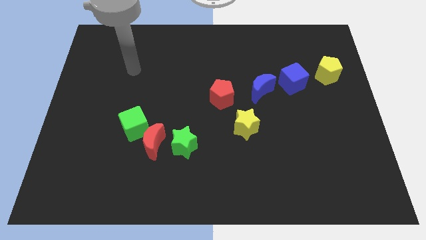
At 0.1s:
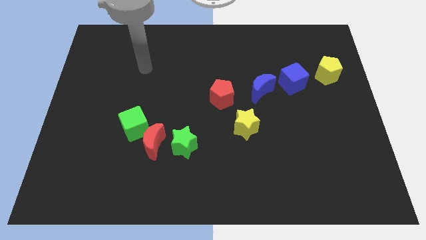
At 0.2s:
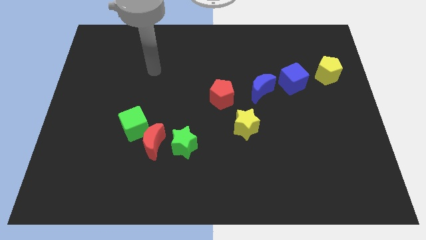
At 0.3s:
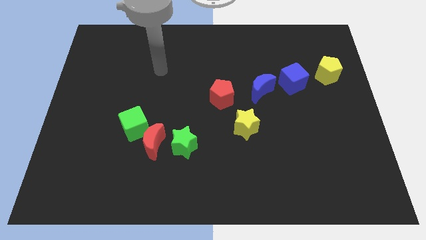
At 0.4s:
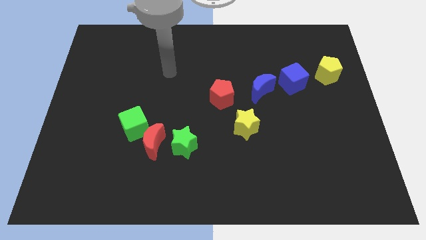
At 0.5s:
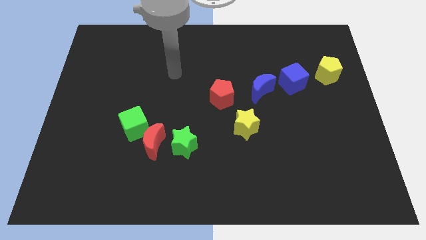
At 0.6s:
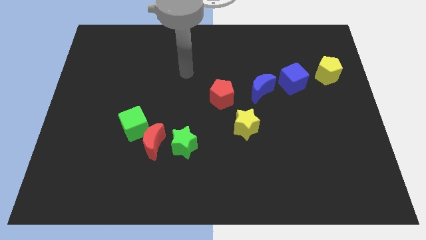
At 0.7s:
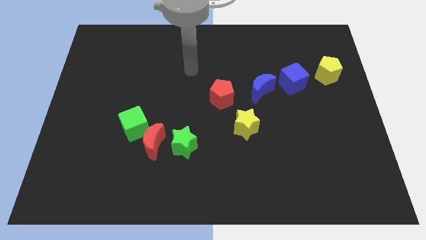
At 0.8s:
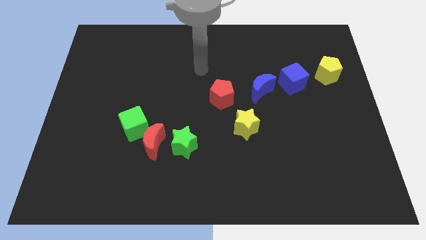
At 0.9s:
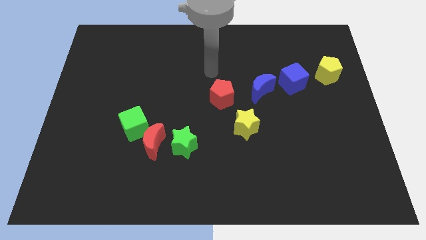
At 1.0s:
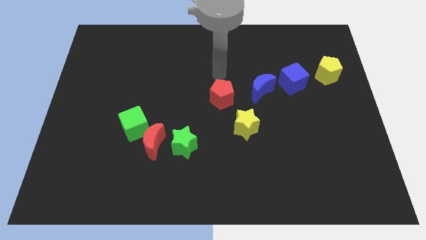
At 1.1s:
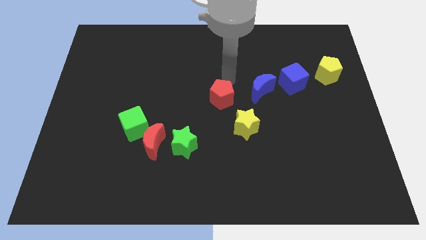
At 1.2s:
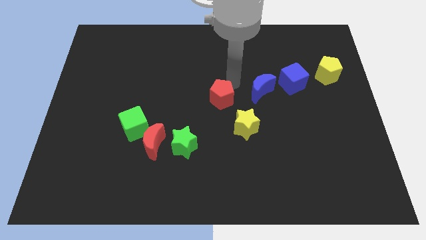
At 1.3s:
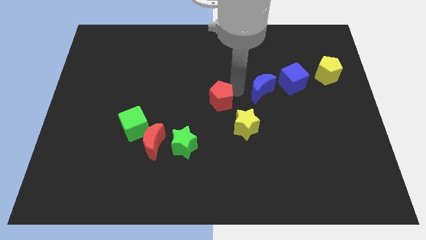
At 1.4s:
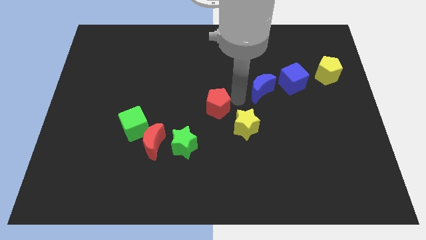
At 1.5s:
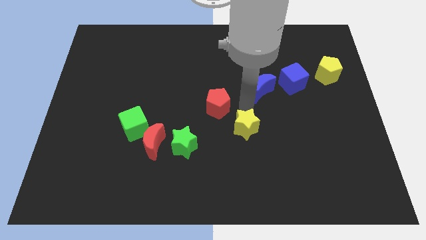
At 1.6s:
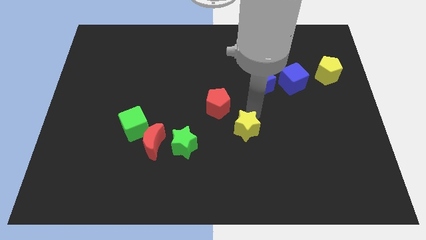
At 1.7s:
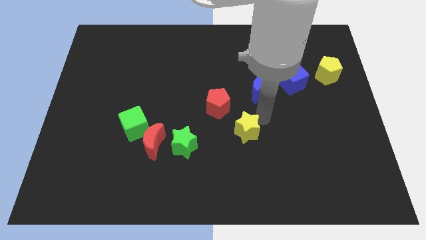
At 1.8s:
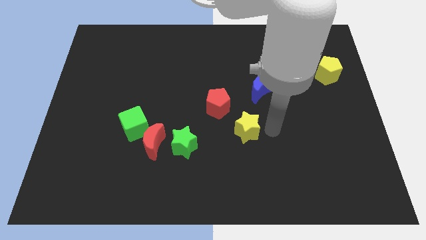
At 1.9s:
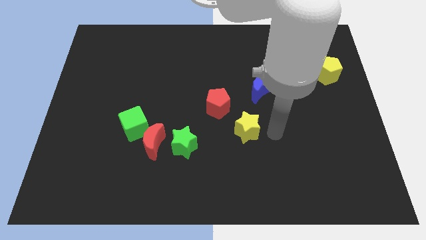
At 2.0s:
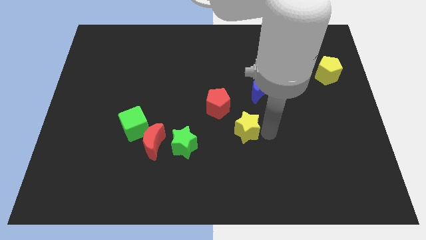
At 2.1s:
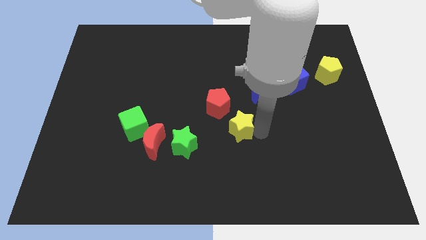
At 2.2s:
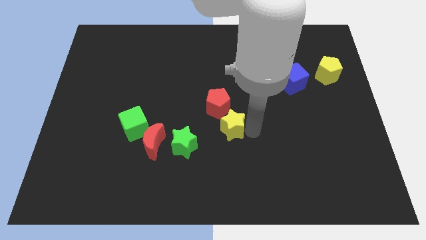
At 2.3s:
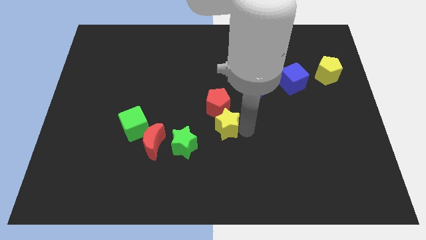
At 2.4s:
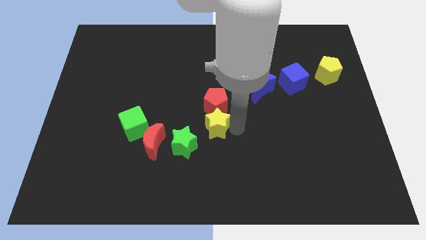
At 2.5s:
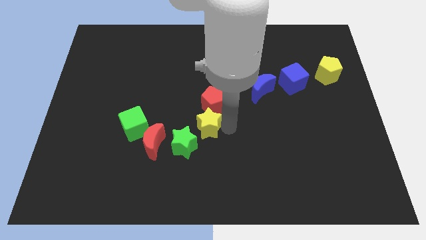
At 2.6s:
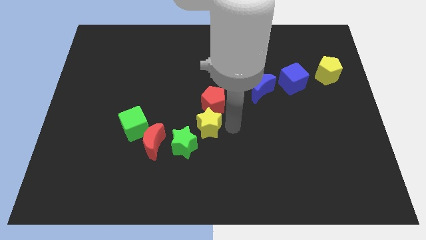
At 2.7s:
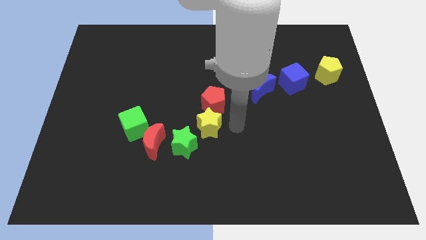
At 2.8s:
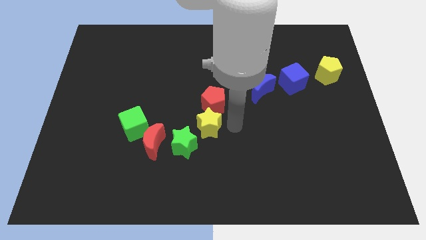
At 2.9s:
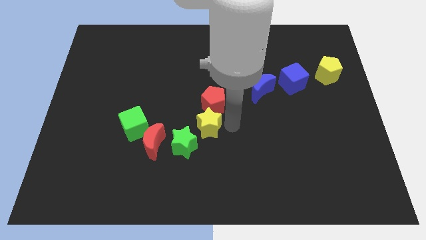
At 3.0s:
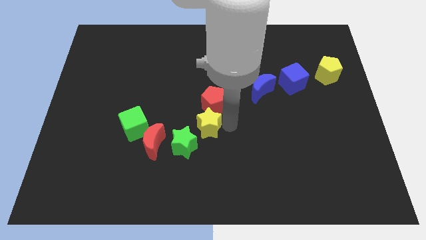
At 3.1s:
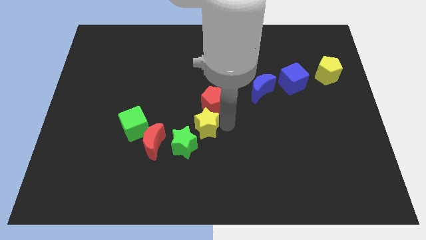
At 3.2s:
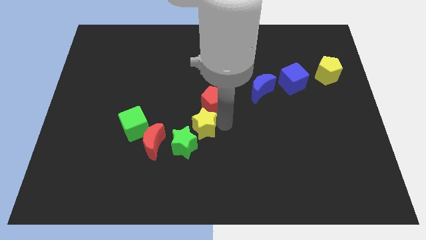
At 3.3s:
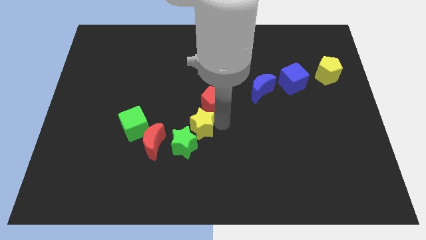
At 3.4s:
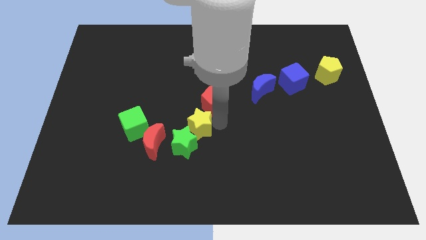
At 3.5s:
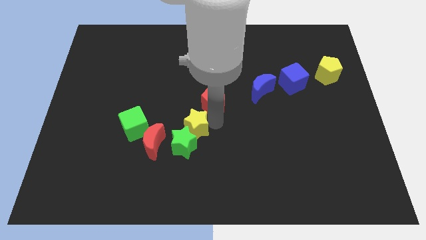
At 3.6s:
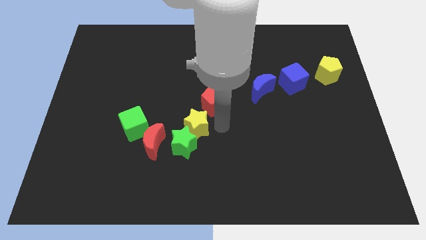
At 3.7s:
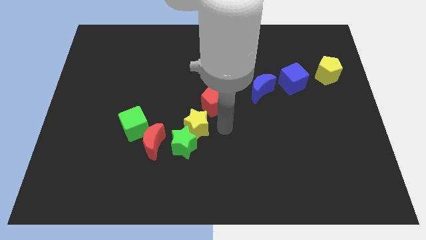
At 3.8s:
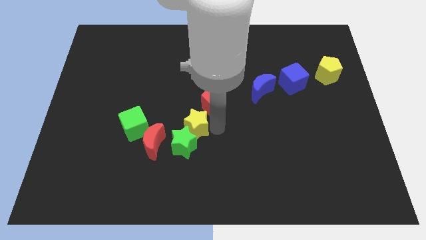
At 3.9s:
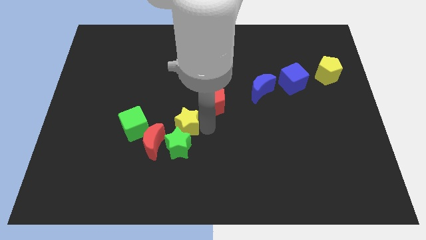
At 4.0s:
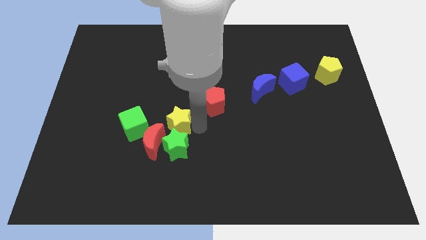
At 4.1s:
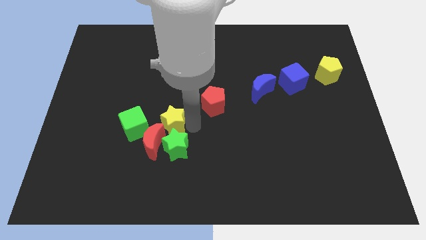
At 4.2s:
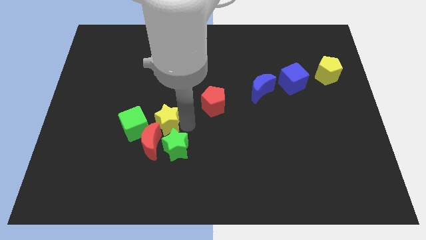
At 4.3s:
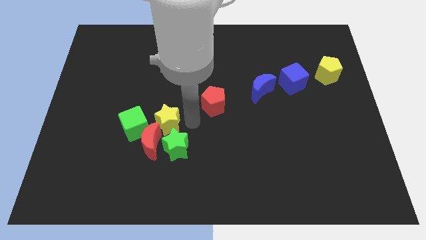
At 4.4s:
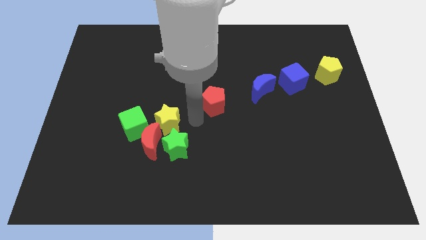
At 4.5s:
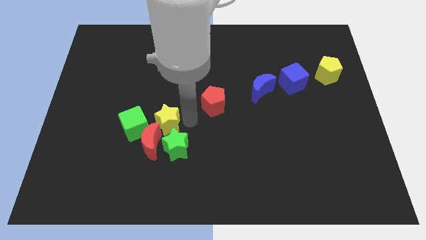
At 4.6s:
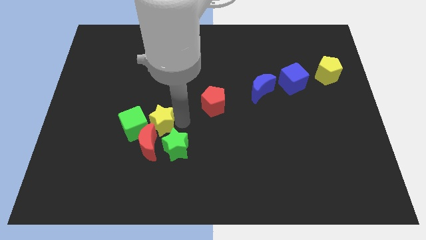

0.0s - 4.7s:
slide the yellow star to the green cube

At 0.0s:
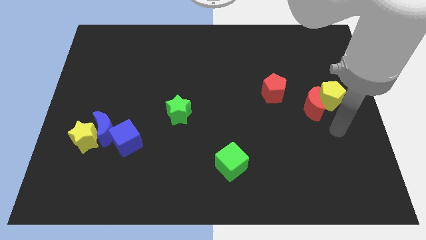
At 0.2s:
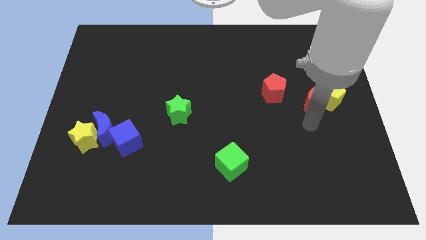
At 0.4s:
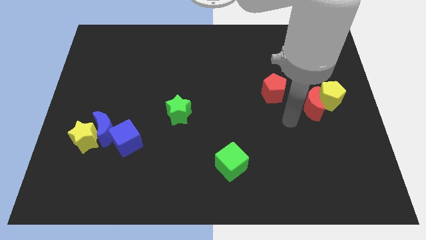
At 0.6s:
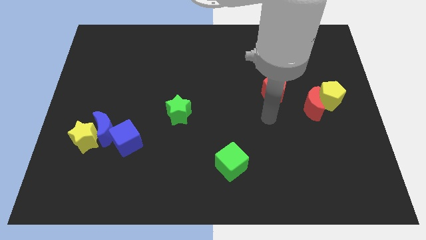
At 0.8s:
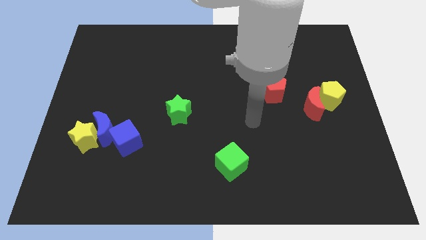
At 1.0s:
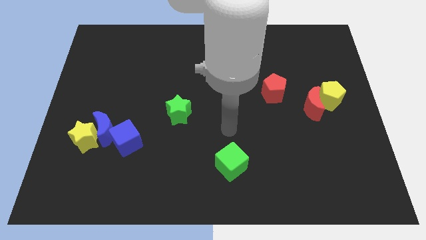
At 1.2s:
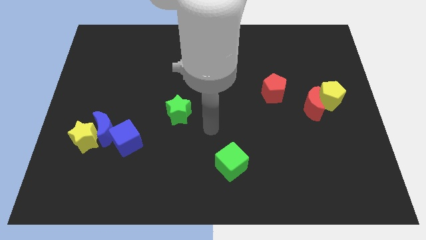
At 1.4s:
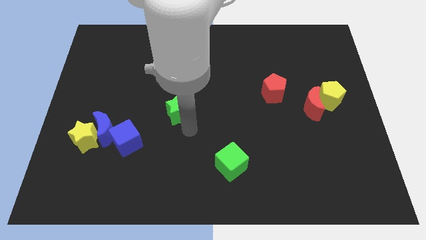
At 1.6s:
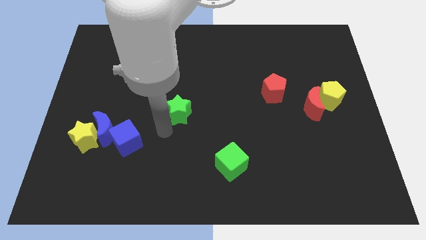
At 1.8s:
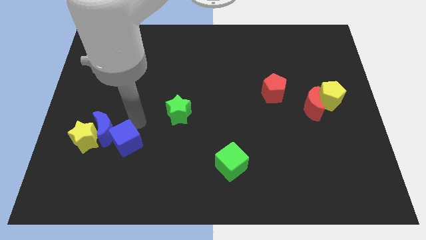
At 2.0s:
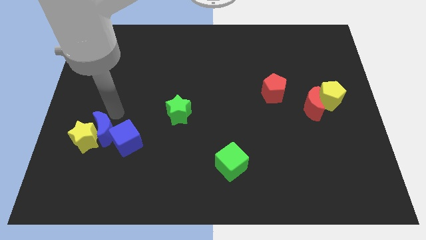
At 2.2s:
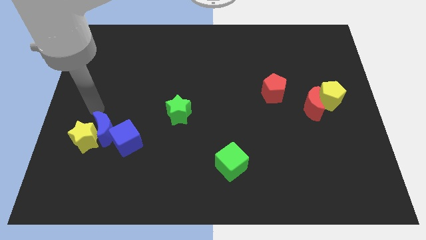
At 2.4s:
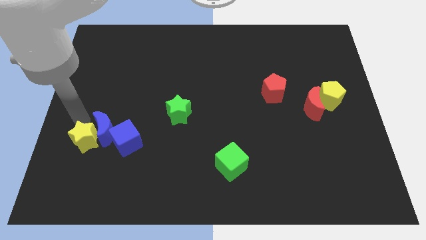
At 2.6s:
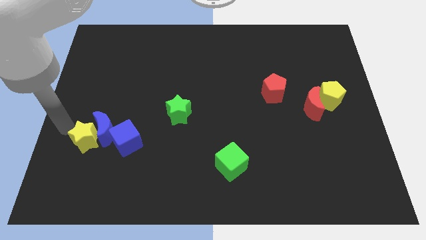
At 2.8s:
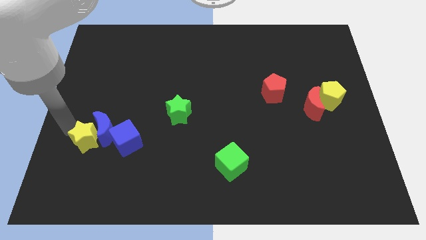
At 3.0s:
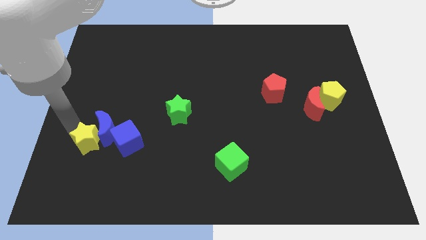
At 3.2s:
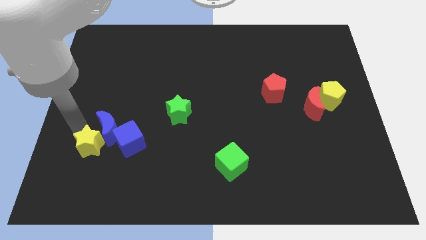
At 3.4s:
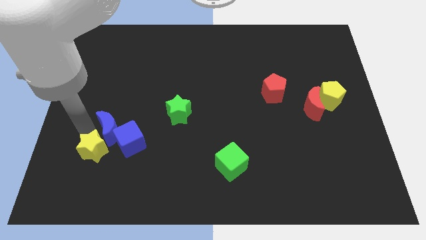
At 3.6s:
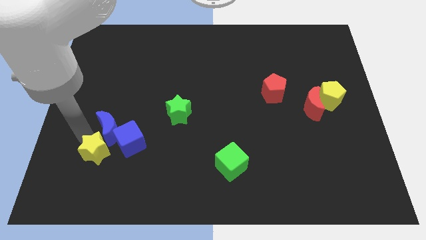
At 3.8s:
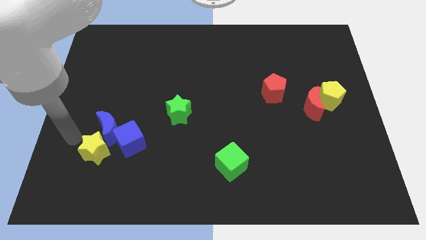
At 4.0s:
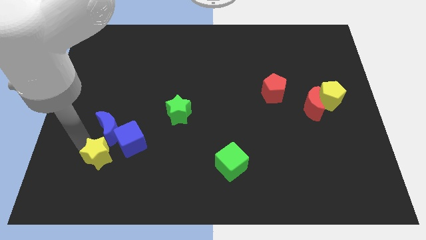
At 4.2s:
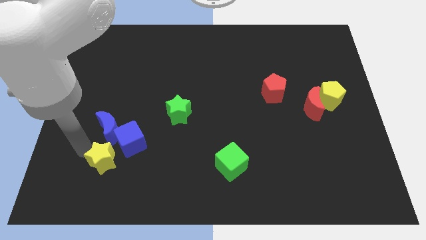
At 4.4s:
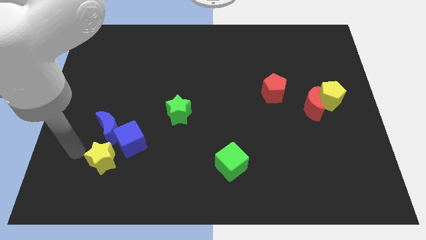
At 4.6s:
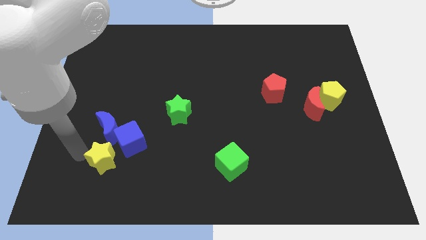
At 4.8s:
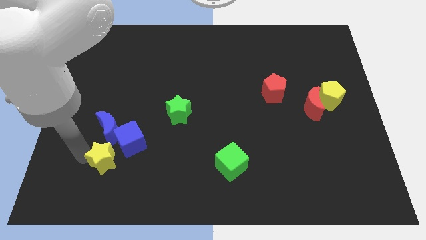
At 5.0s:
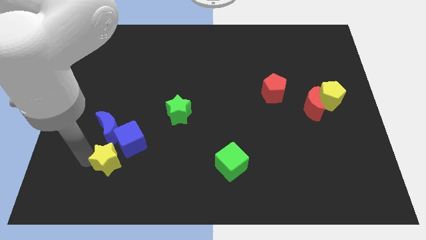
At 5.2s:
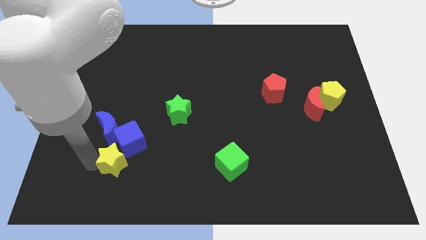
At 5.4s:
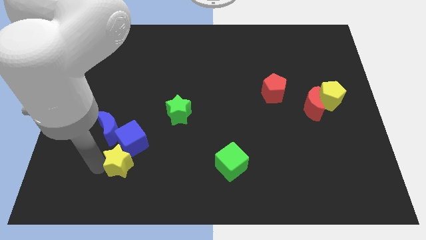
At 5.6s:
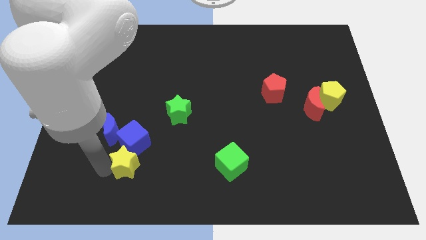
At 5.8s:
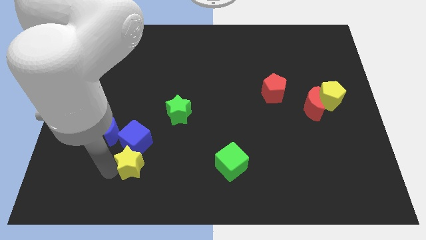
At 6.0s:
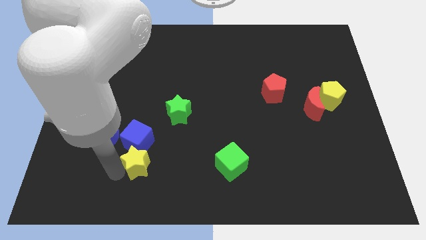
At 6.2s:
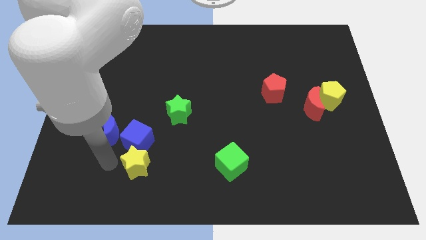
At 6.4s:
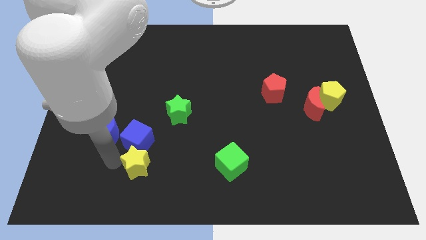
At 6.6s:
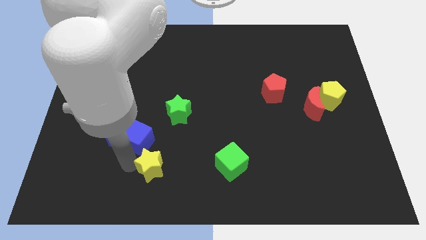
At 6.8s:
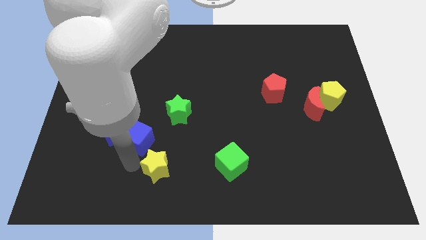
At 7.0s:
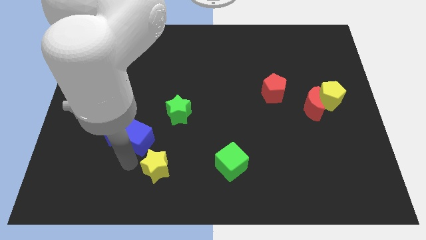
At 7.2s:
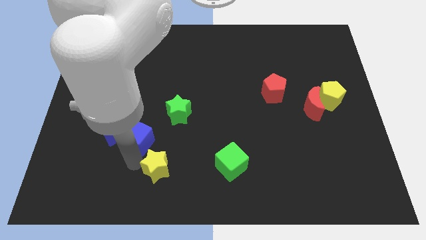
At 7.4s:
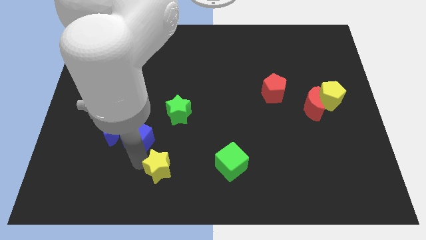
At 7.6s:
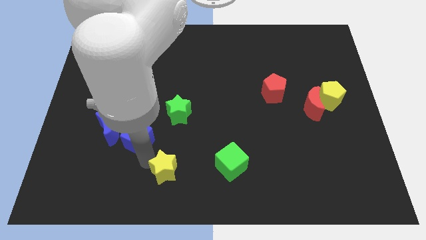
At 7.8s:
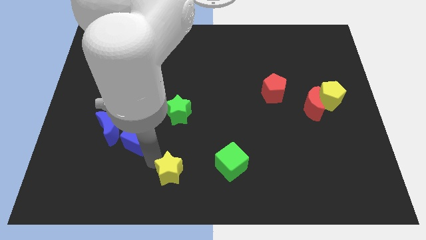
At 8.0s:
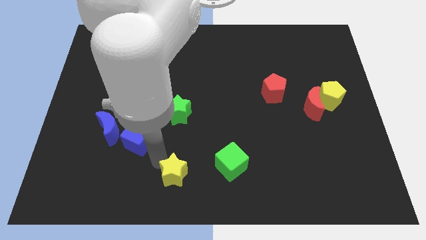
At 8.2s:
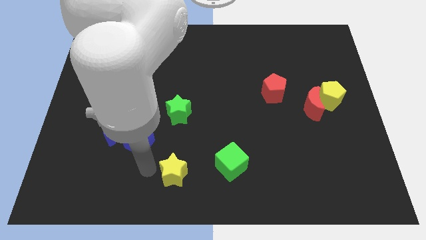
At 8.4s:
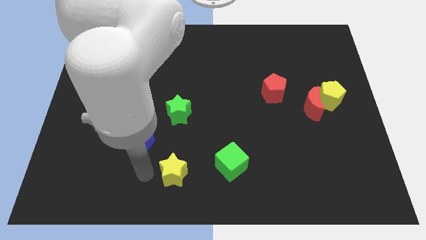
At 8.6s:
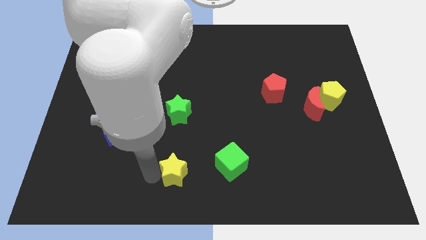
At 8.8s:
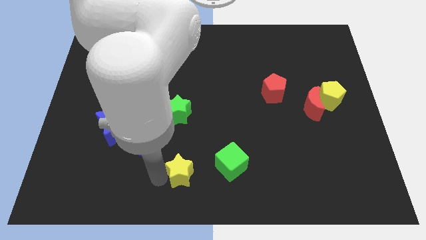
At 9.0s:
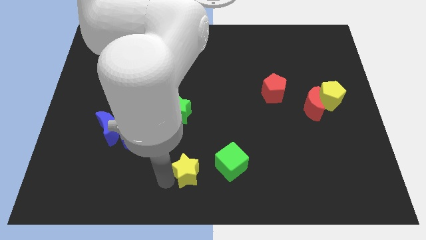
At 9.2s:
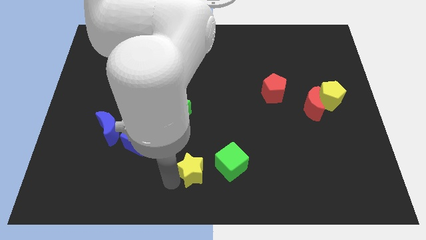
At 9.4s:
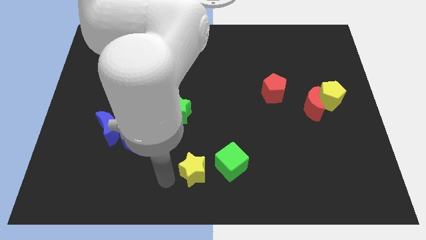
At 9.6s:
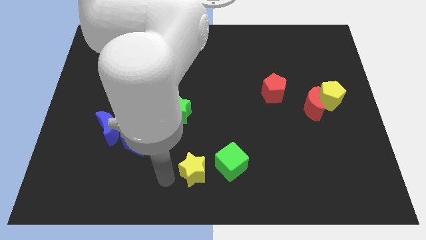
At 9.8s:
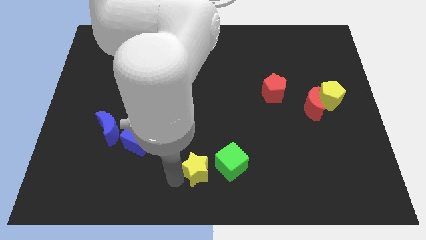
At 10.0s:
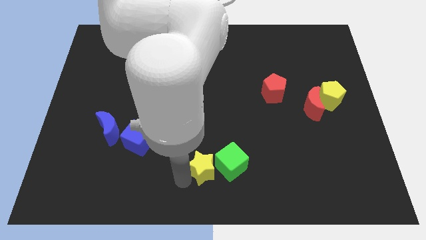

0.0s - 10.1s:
put the yellow star close to the green cube
